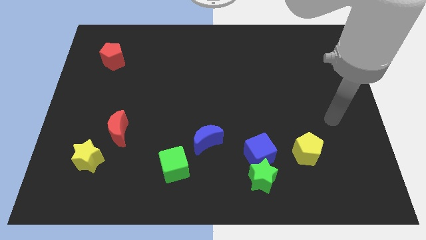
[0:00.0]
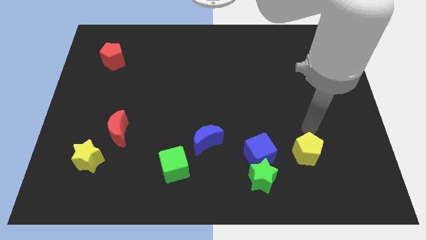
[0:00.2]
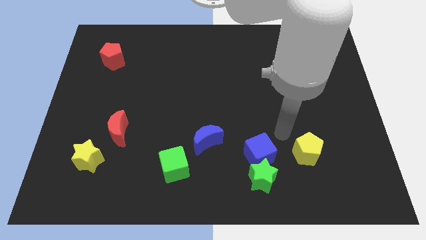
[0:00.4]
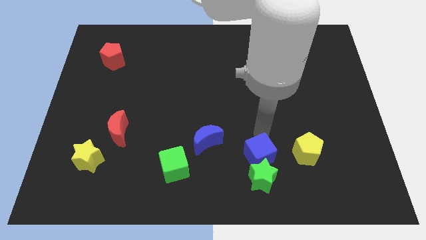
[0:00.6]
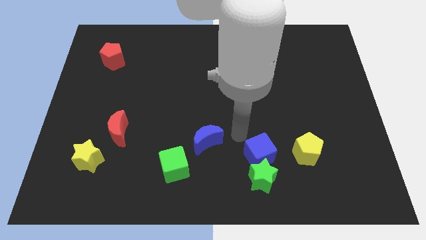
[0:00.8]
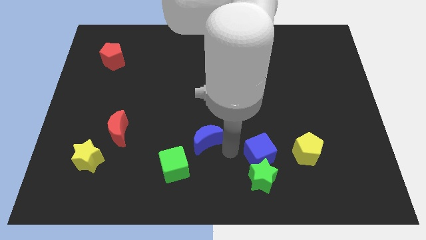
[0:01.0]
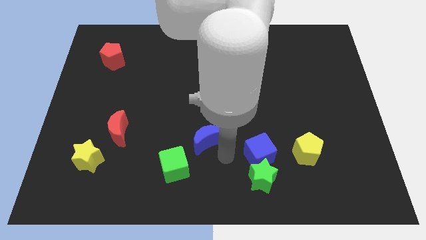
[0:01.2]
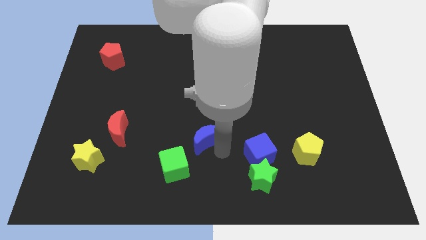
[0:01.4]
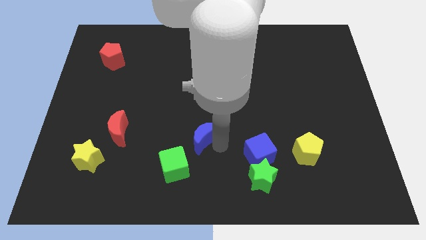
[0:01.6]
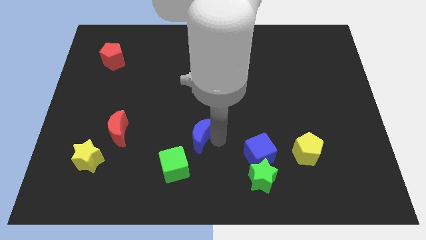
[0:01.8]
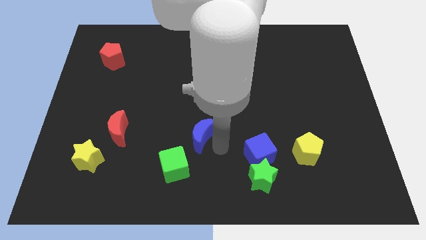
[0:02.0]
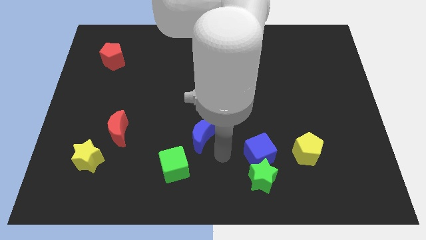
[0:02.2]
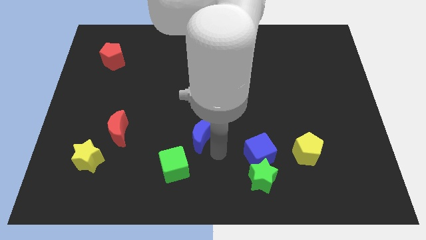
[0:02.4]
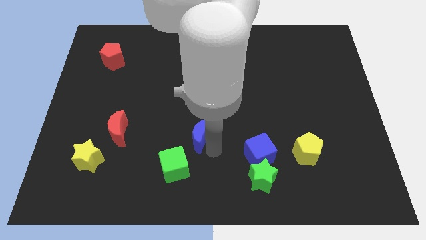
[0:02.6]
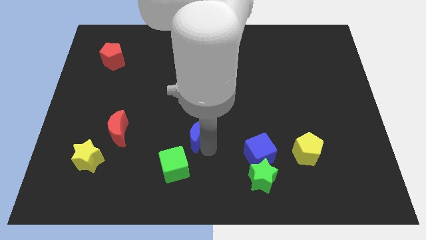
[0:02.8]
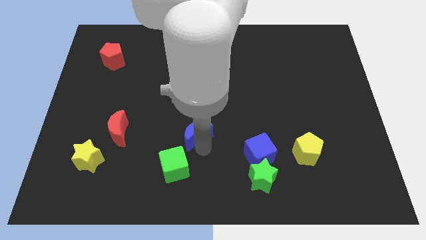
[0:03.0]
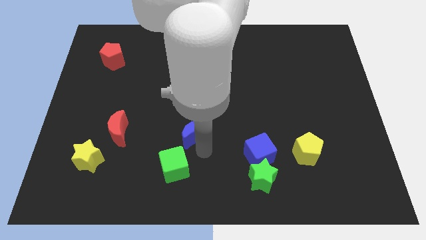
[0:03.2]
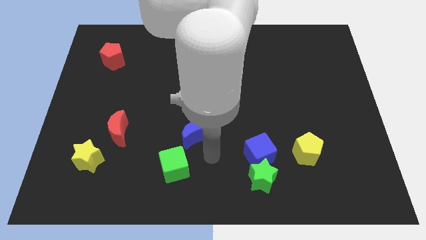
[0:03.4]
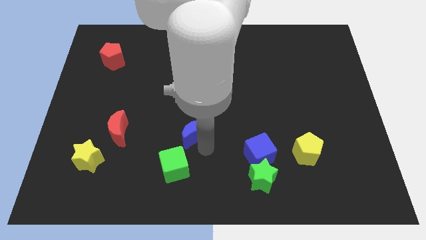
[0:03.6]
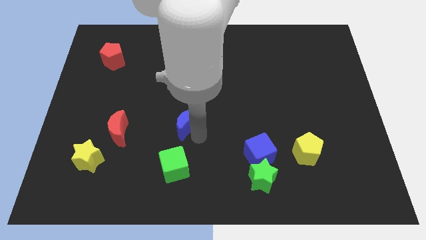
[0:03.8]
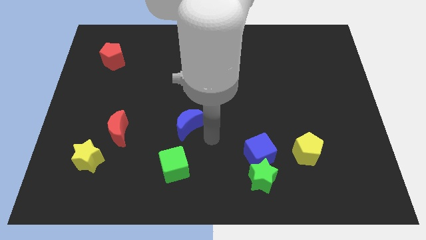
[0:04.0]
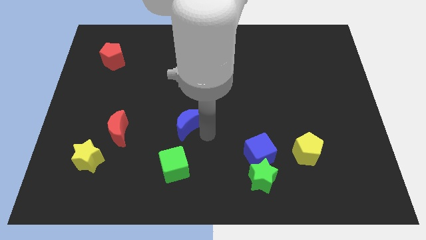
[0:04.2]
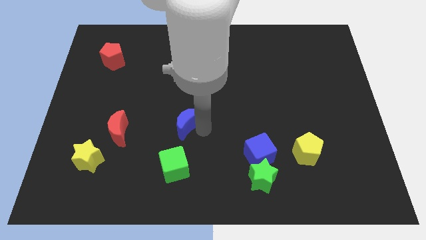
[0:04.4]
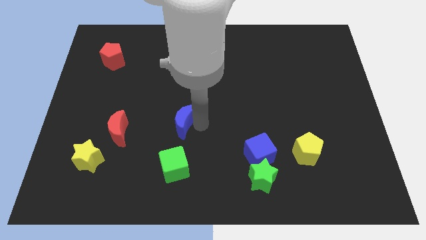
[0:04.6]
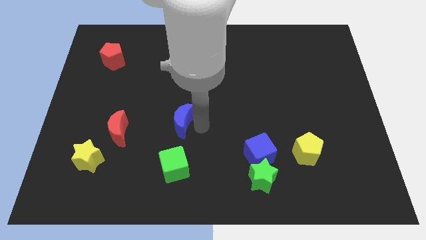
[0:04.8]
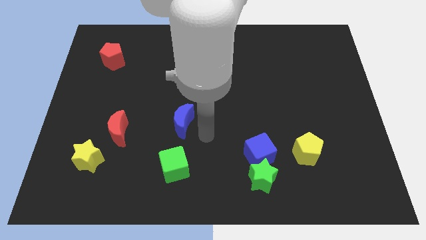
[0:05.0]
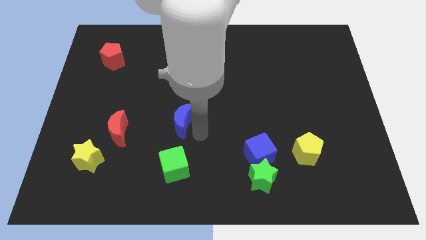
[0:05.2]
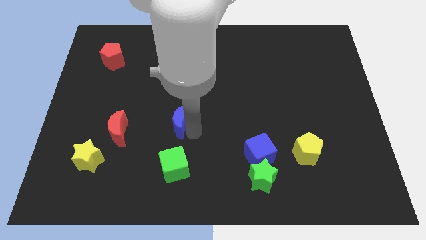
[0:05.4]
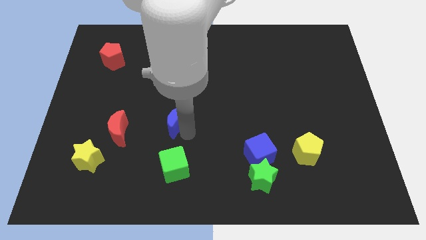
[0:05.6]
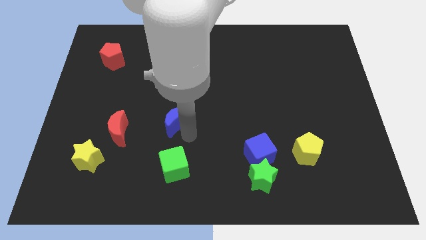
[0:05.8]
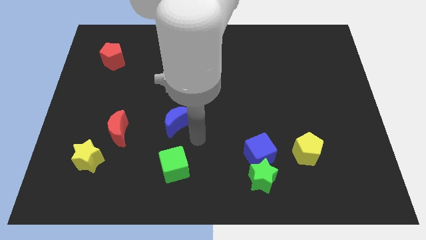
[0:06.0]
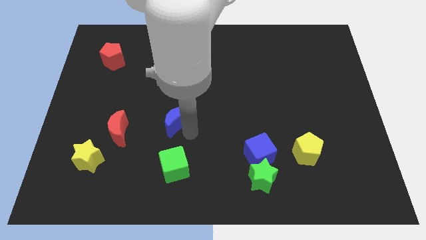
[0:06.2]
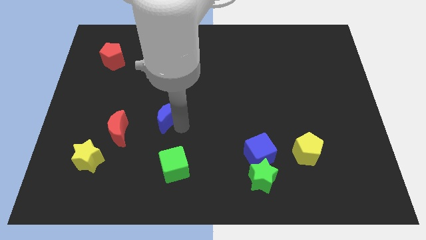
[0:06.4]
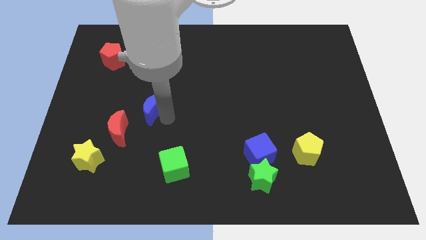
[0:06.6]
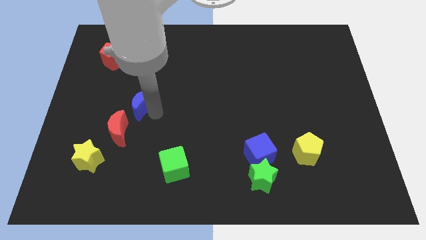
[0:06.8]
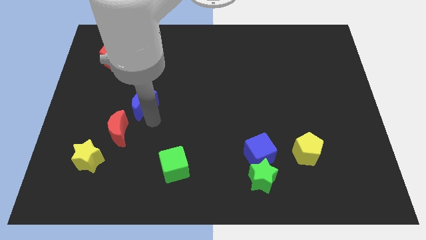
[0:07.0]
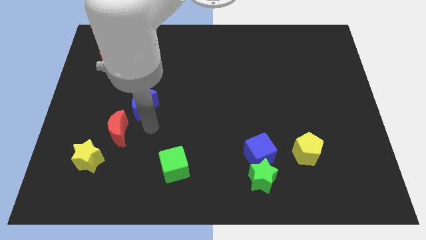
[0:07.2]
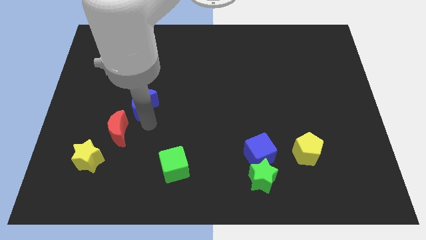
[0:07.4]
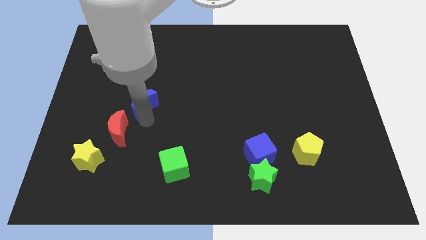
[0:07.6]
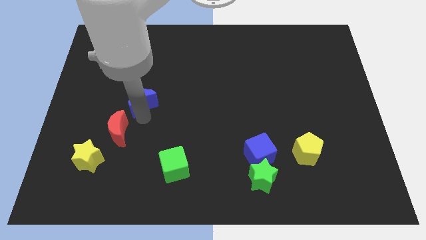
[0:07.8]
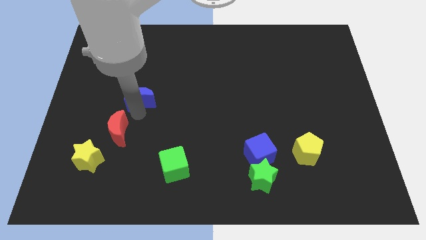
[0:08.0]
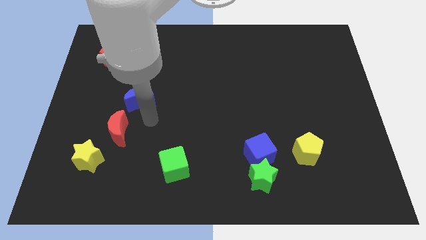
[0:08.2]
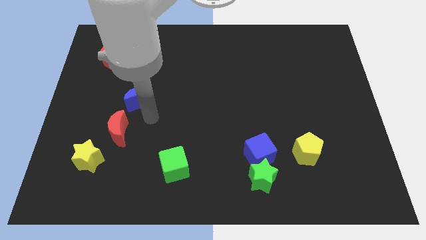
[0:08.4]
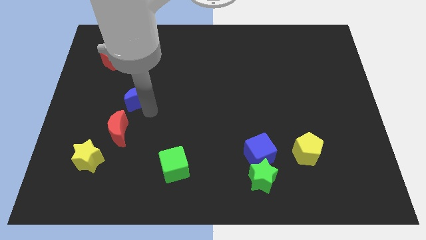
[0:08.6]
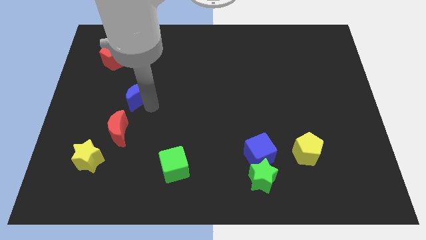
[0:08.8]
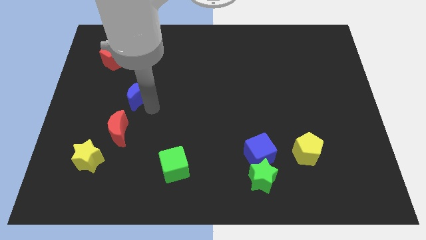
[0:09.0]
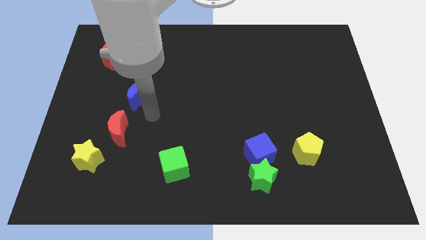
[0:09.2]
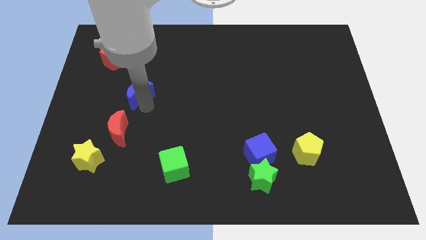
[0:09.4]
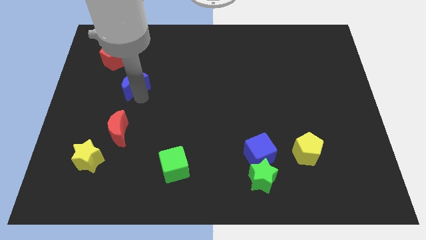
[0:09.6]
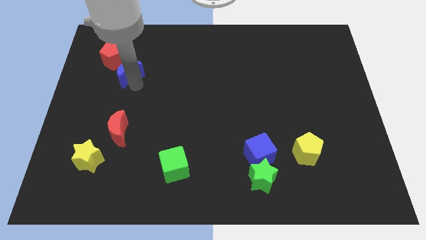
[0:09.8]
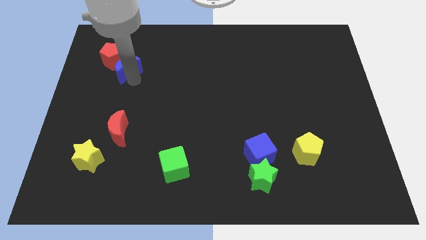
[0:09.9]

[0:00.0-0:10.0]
slide the blue moon next to the red pentagon

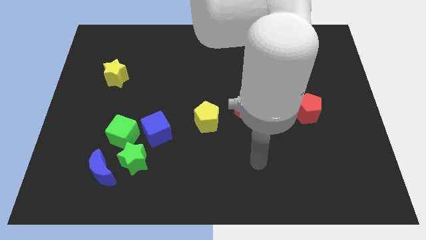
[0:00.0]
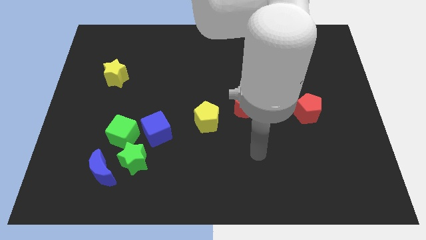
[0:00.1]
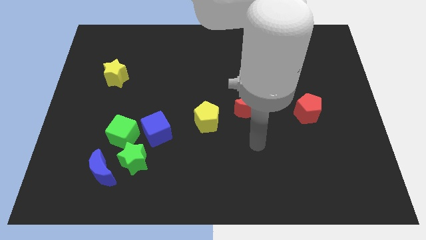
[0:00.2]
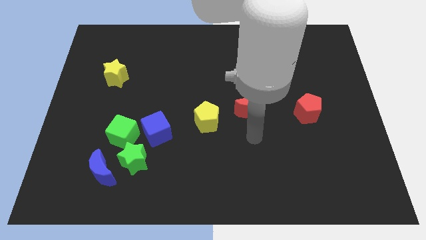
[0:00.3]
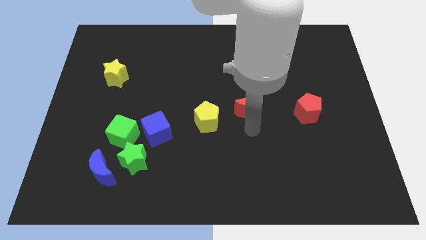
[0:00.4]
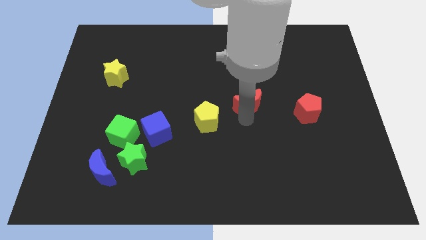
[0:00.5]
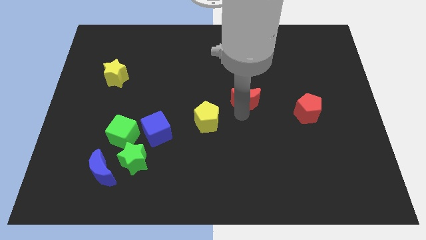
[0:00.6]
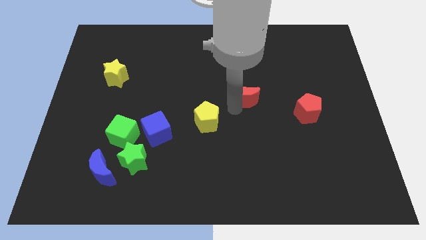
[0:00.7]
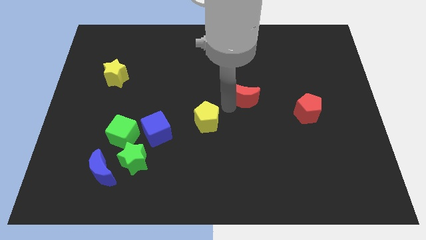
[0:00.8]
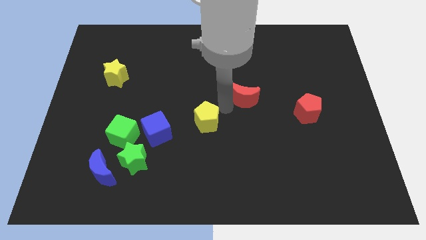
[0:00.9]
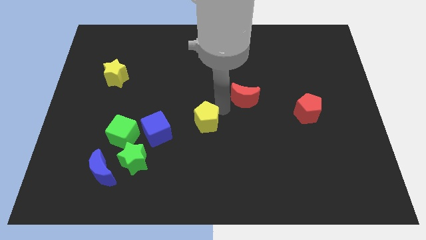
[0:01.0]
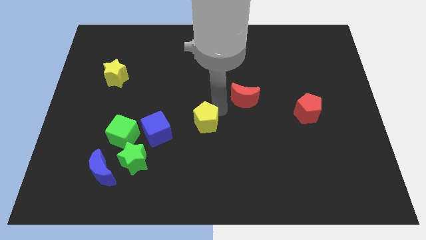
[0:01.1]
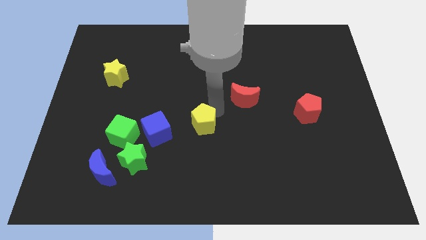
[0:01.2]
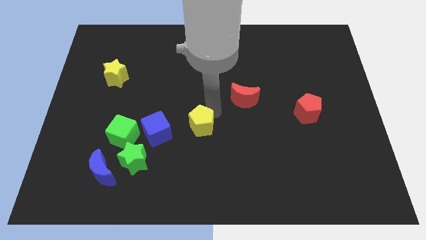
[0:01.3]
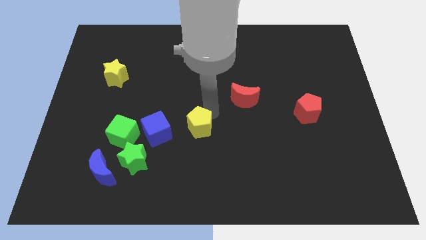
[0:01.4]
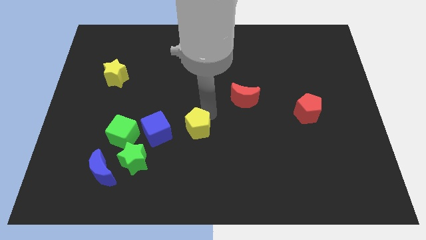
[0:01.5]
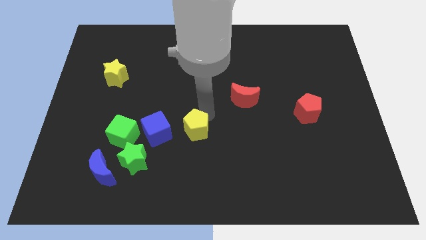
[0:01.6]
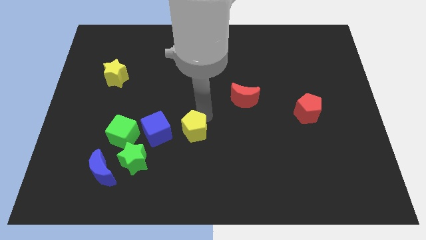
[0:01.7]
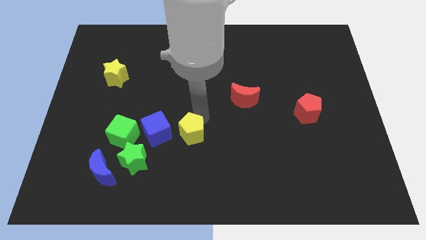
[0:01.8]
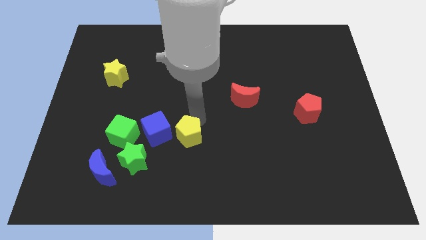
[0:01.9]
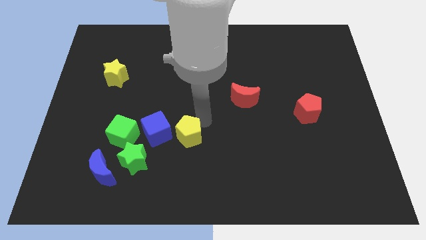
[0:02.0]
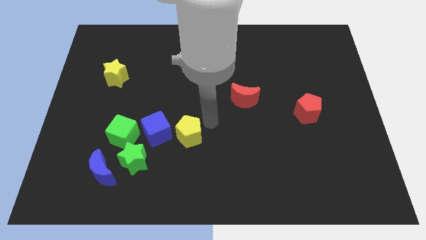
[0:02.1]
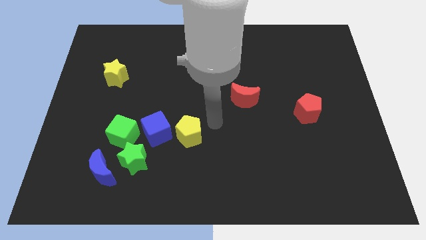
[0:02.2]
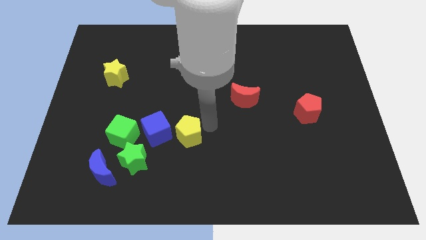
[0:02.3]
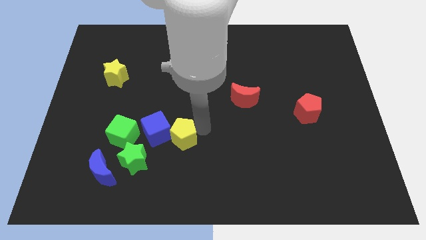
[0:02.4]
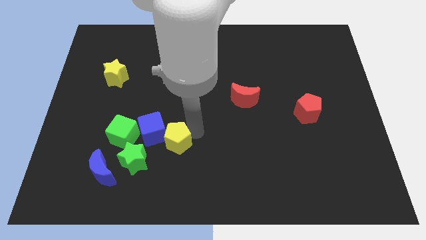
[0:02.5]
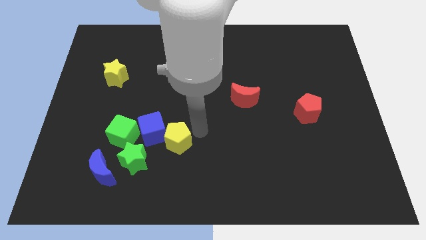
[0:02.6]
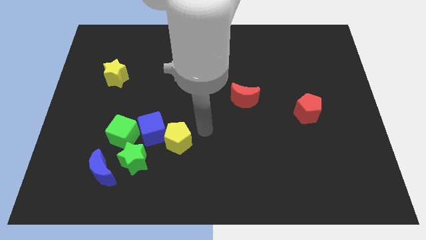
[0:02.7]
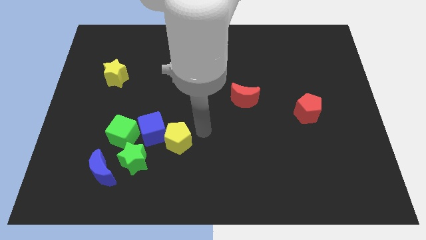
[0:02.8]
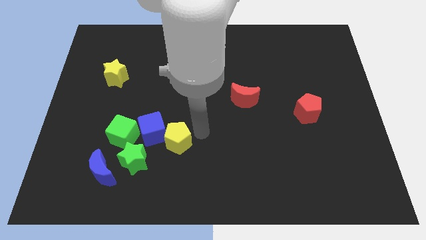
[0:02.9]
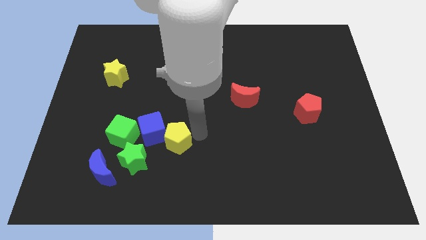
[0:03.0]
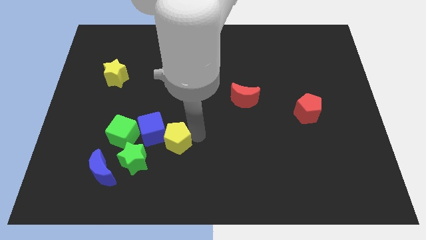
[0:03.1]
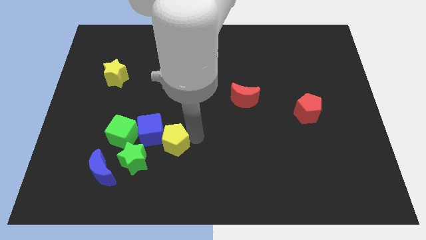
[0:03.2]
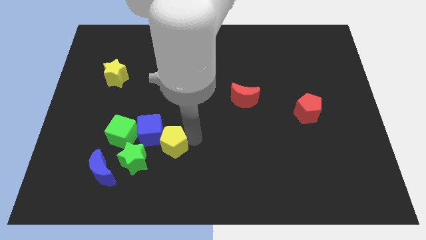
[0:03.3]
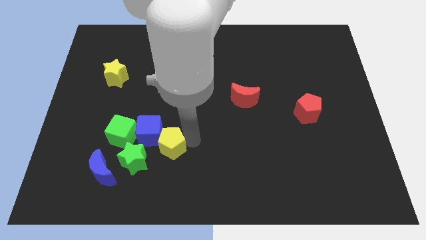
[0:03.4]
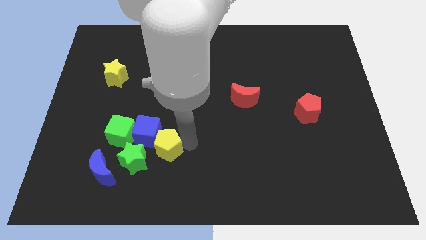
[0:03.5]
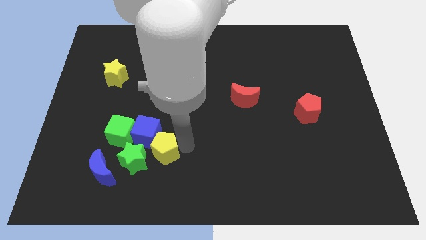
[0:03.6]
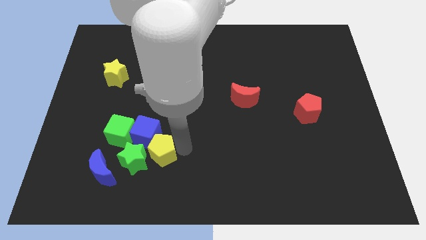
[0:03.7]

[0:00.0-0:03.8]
put the yellow pentagon to the green star
